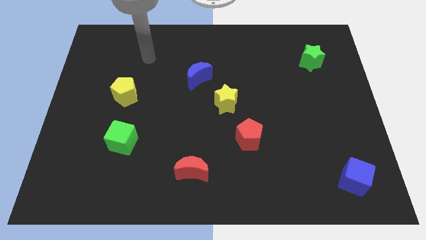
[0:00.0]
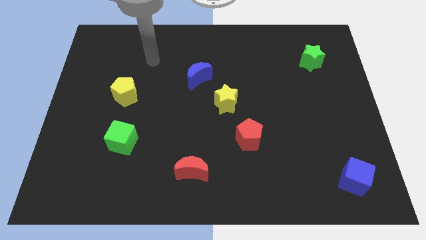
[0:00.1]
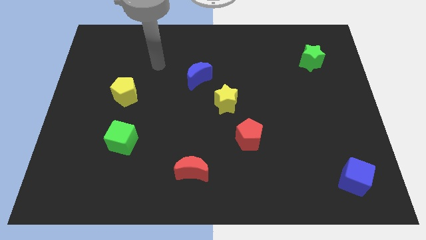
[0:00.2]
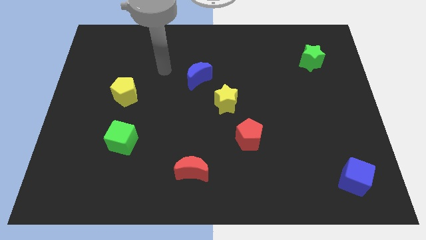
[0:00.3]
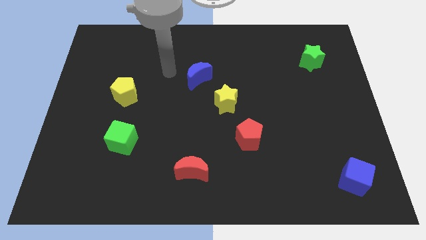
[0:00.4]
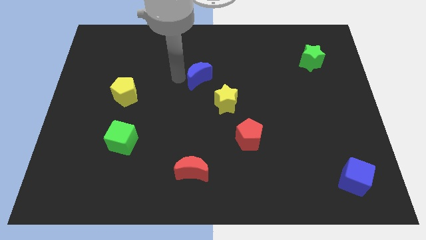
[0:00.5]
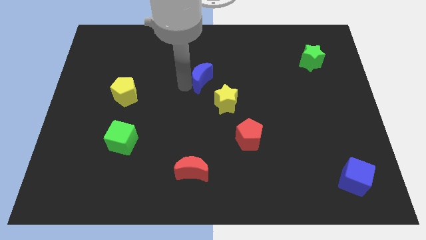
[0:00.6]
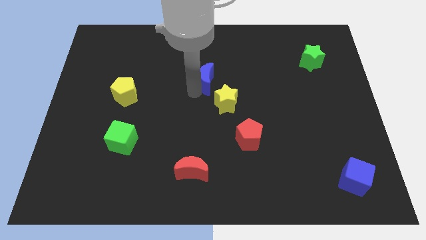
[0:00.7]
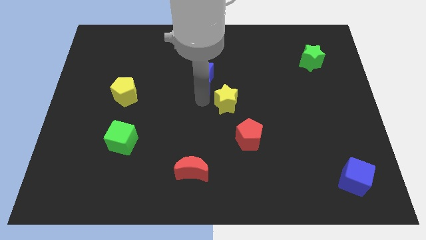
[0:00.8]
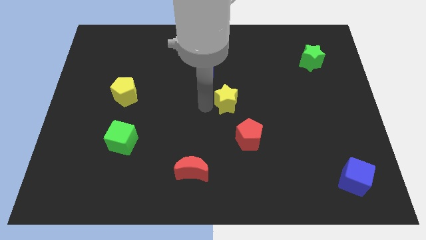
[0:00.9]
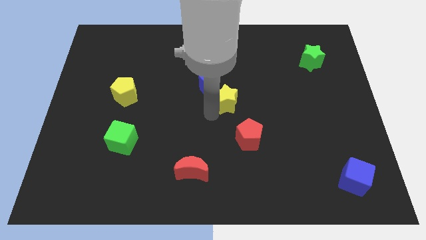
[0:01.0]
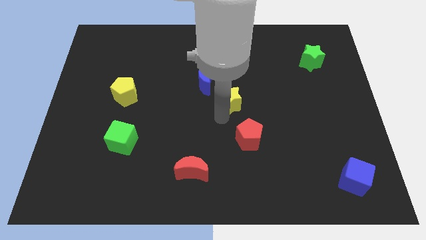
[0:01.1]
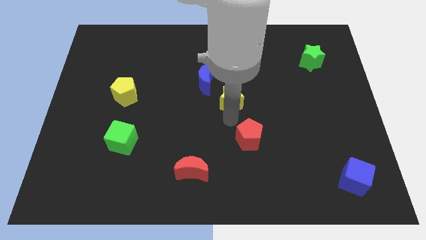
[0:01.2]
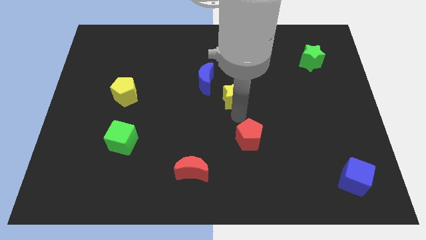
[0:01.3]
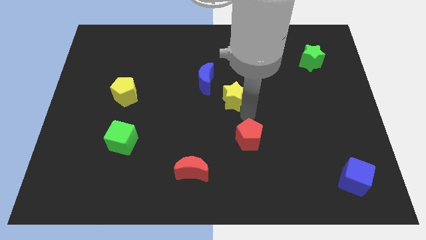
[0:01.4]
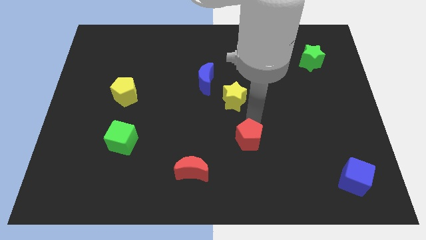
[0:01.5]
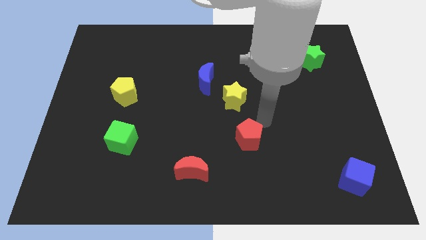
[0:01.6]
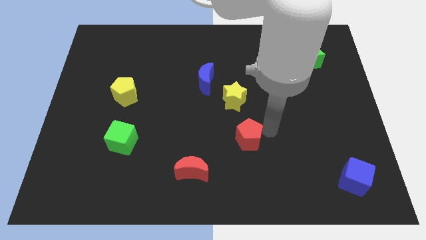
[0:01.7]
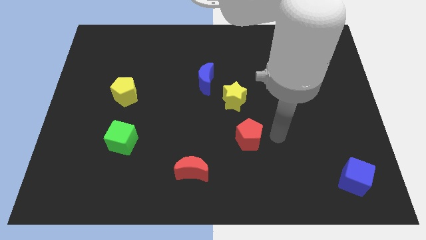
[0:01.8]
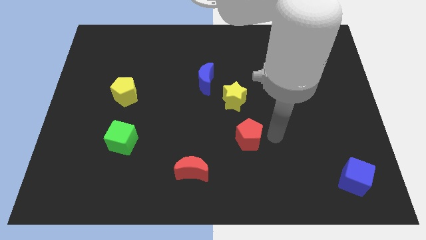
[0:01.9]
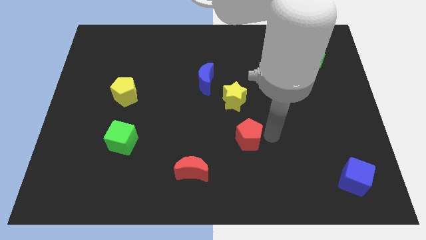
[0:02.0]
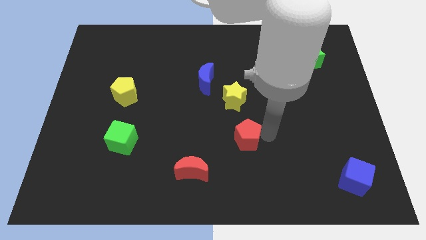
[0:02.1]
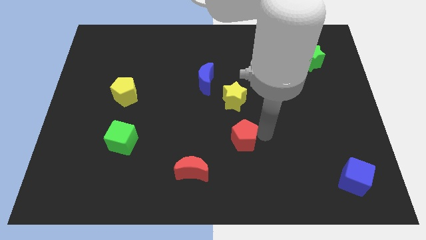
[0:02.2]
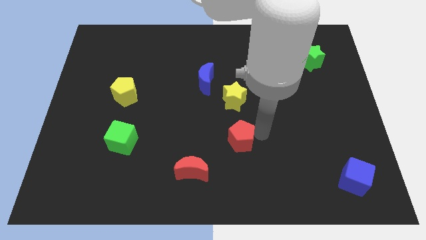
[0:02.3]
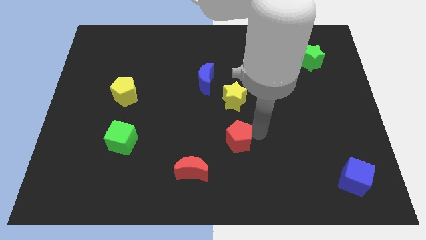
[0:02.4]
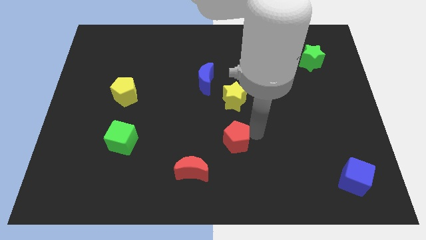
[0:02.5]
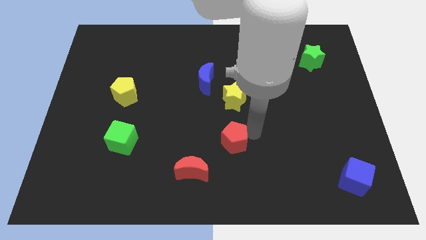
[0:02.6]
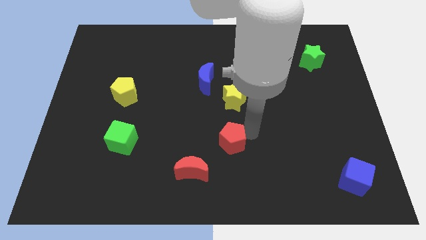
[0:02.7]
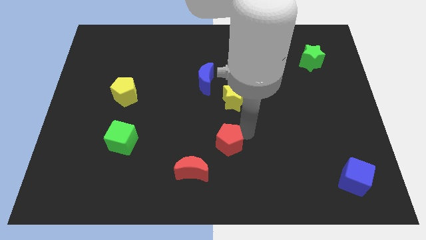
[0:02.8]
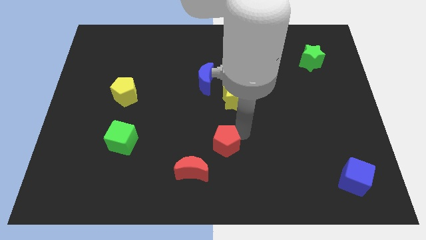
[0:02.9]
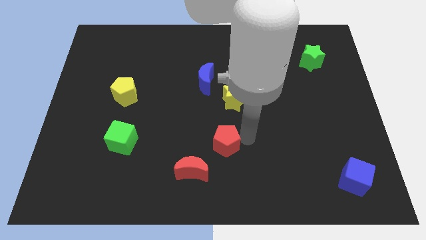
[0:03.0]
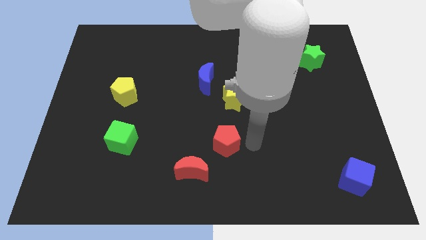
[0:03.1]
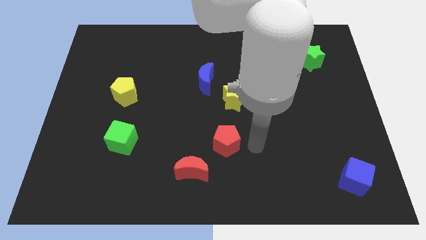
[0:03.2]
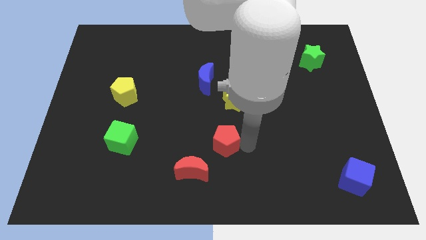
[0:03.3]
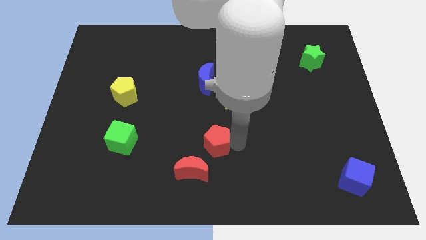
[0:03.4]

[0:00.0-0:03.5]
slide the red pentagon left a little bit

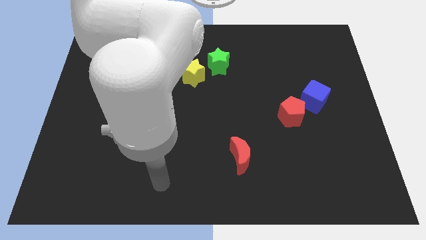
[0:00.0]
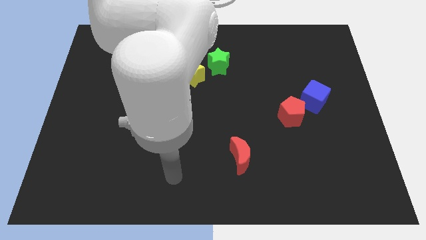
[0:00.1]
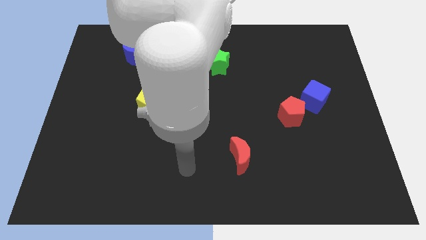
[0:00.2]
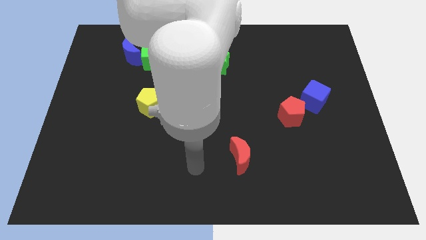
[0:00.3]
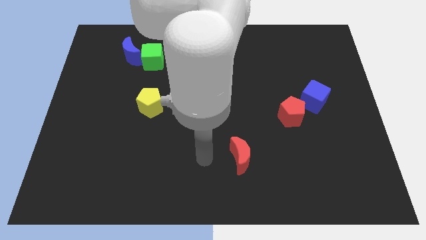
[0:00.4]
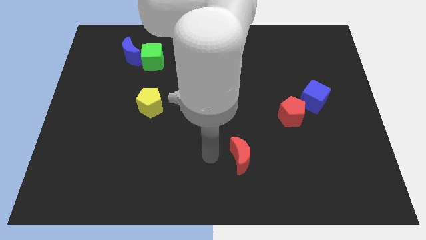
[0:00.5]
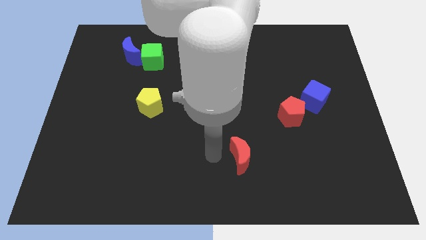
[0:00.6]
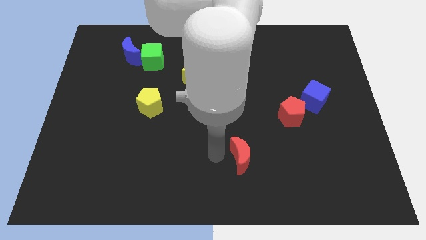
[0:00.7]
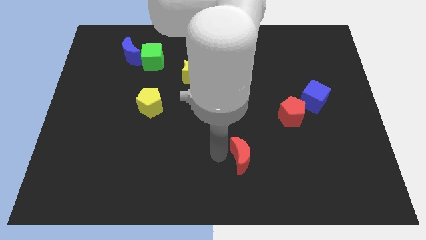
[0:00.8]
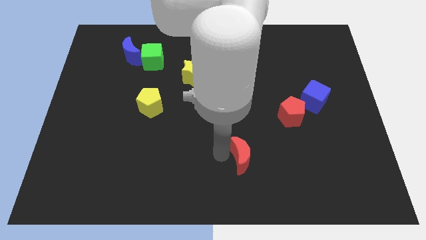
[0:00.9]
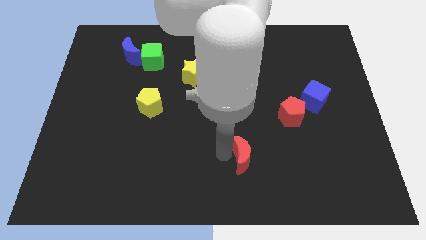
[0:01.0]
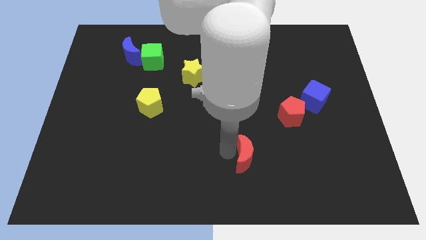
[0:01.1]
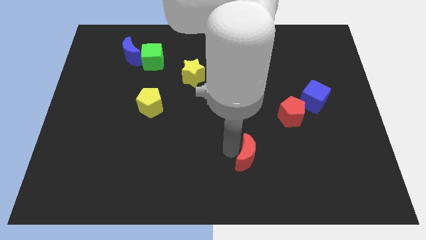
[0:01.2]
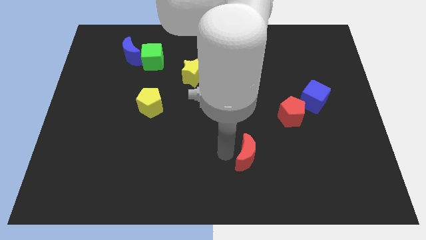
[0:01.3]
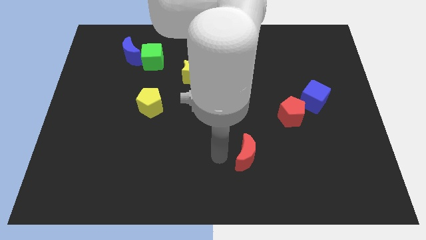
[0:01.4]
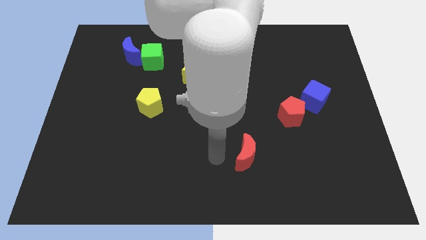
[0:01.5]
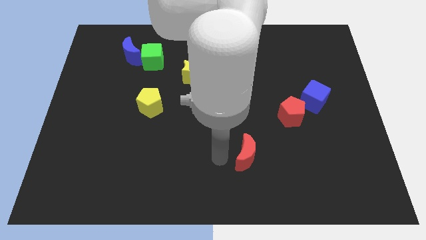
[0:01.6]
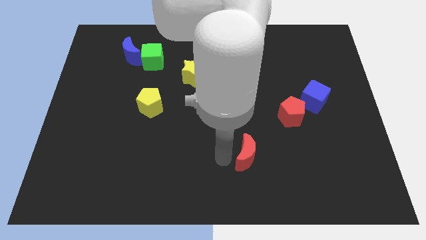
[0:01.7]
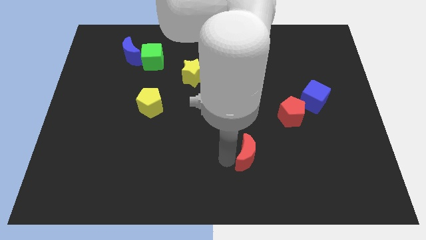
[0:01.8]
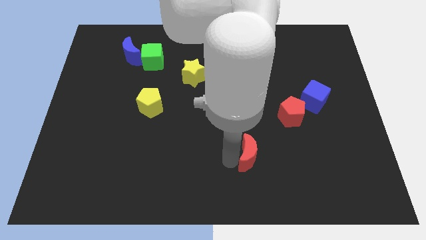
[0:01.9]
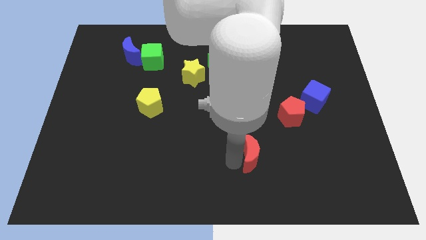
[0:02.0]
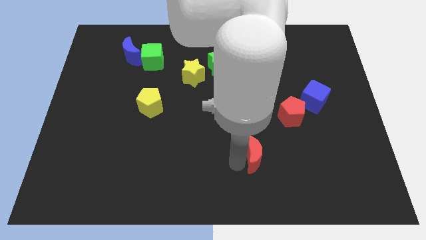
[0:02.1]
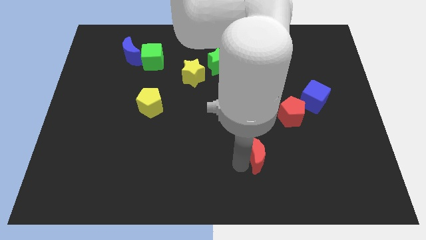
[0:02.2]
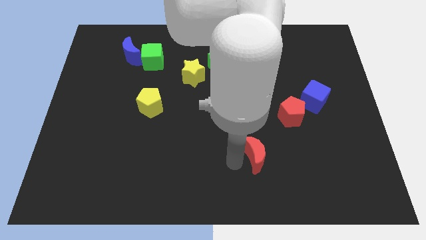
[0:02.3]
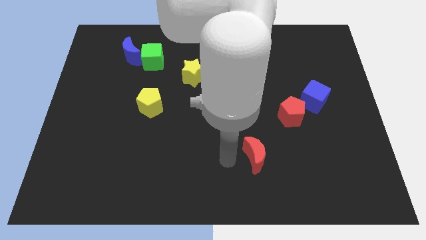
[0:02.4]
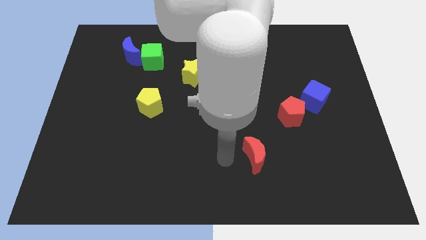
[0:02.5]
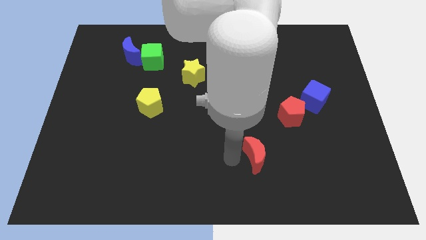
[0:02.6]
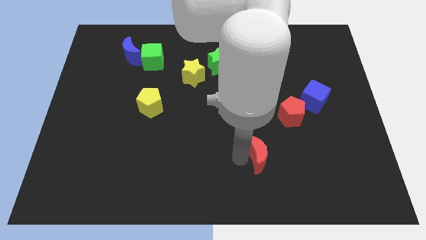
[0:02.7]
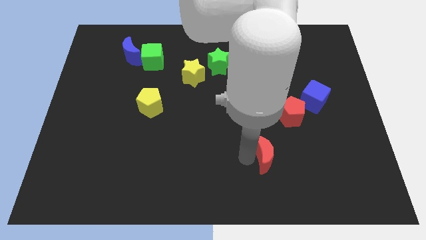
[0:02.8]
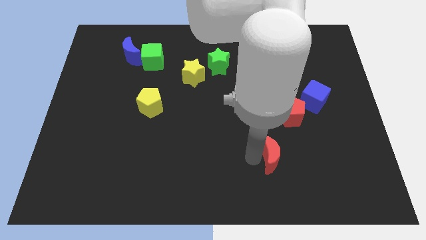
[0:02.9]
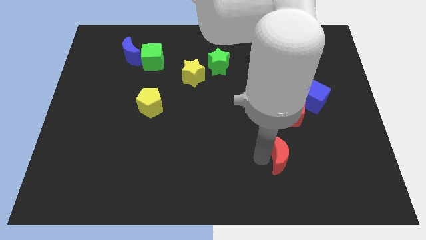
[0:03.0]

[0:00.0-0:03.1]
push the red moon to the right a little bit

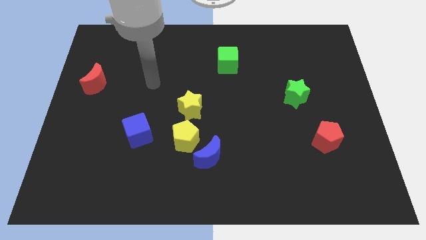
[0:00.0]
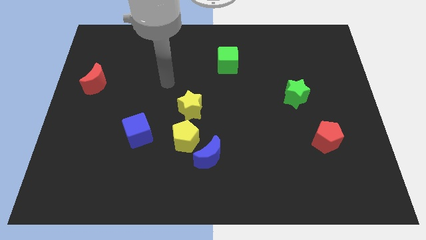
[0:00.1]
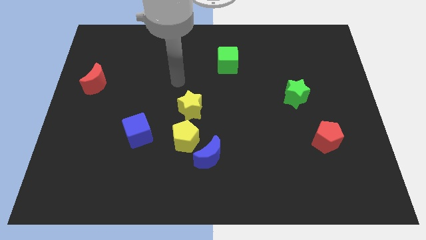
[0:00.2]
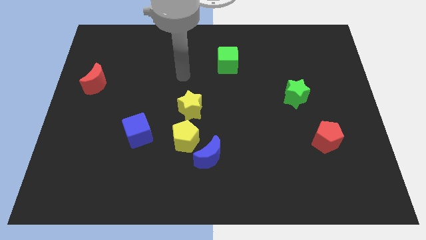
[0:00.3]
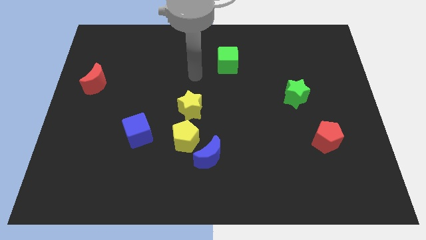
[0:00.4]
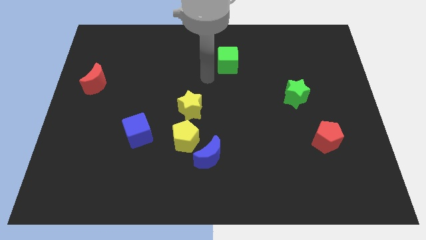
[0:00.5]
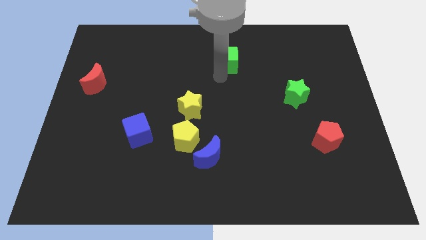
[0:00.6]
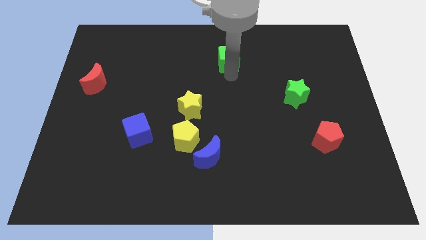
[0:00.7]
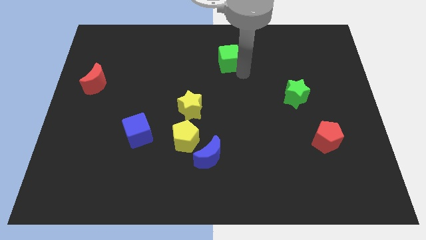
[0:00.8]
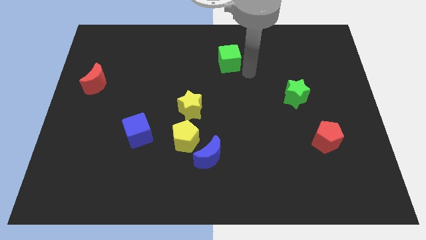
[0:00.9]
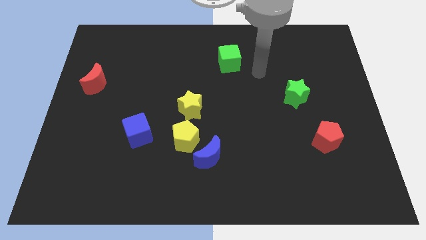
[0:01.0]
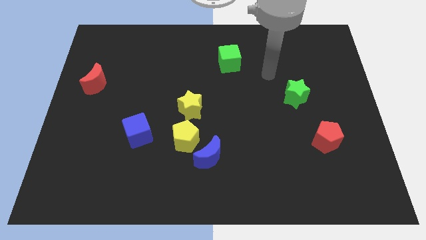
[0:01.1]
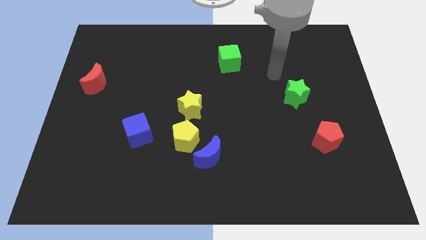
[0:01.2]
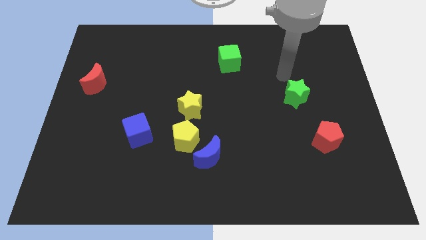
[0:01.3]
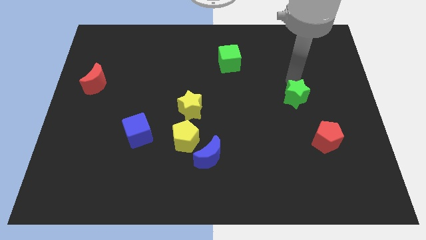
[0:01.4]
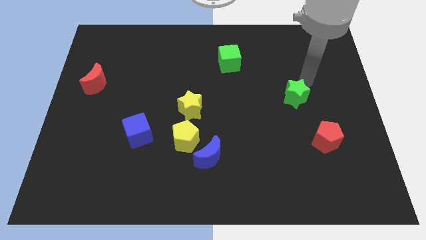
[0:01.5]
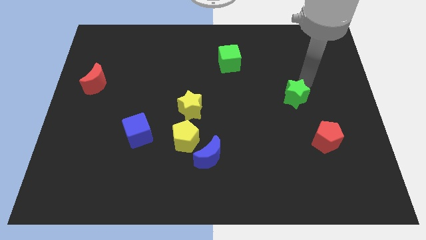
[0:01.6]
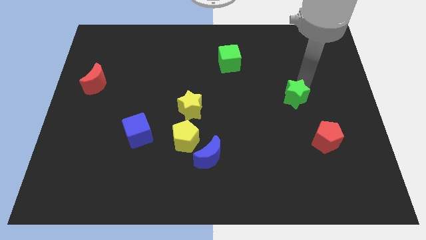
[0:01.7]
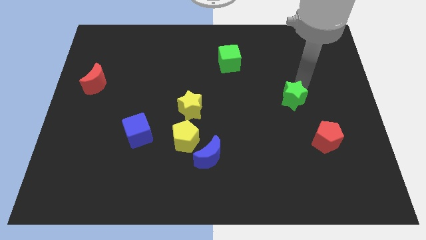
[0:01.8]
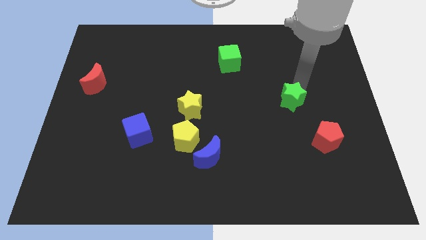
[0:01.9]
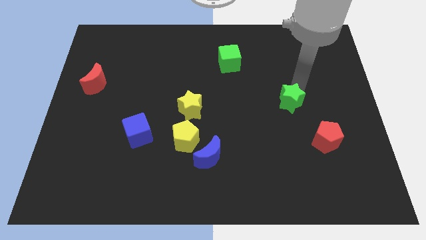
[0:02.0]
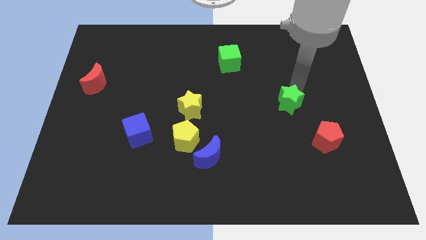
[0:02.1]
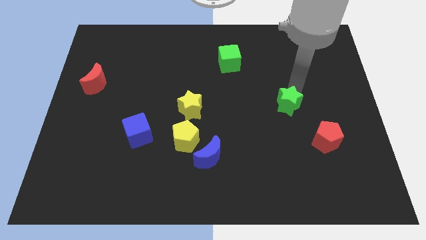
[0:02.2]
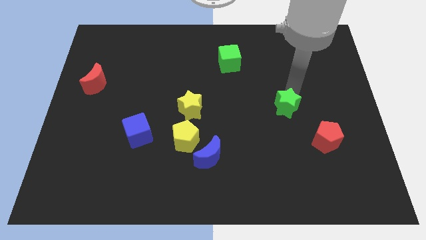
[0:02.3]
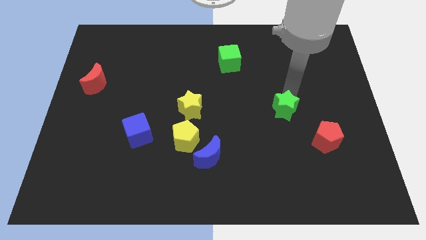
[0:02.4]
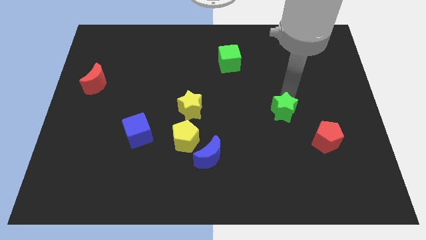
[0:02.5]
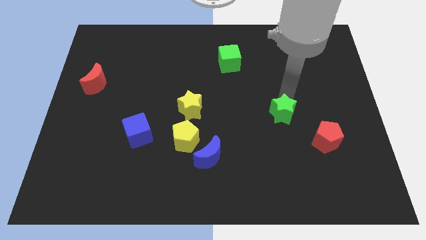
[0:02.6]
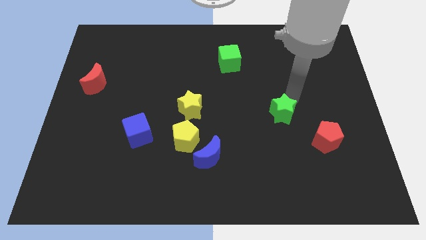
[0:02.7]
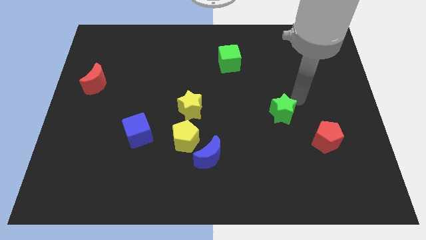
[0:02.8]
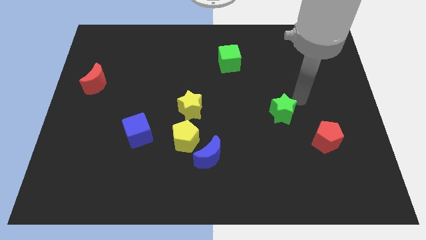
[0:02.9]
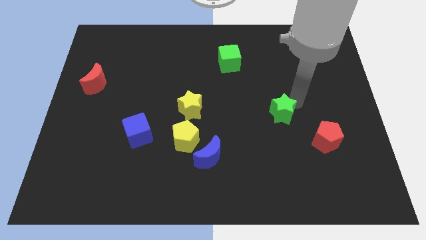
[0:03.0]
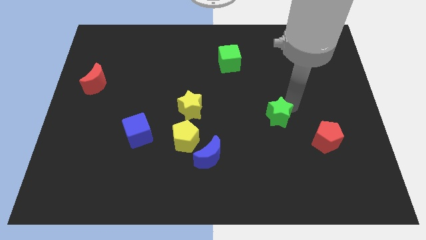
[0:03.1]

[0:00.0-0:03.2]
push the green star downwards and then to the left somewhat
